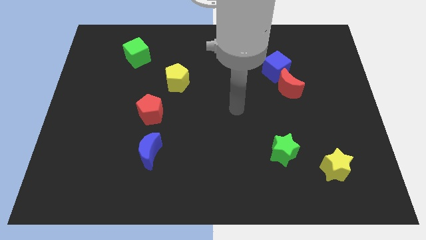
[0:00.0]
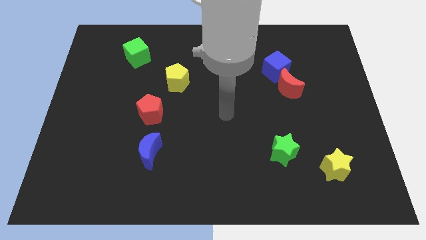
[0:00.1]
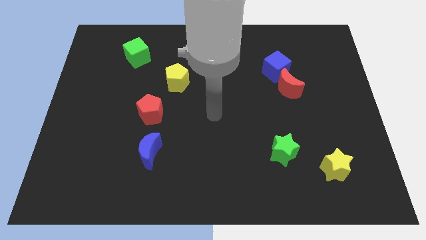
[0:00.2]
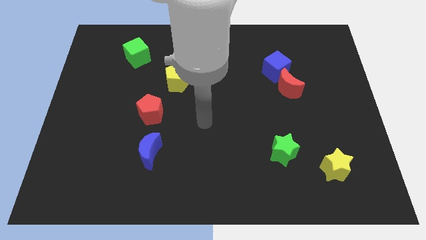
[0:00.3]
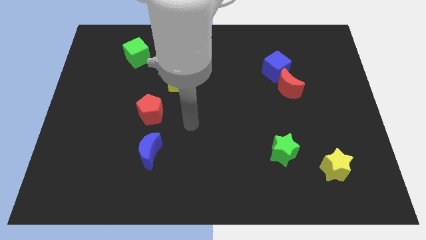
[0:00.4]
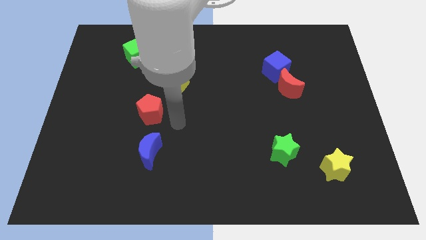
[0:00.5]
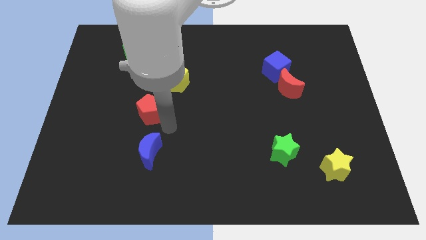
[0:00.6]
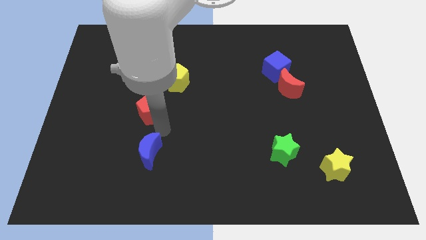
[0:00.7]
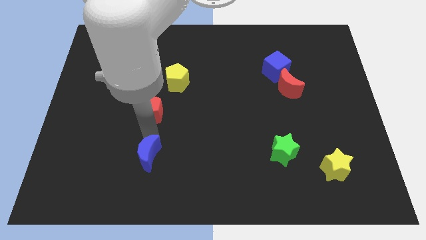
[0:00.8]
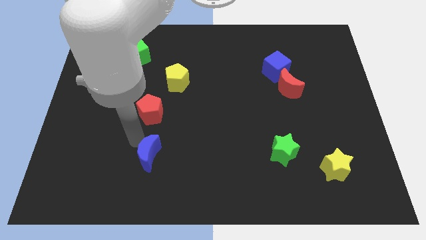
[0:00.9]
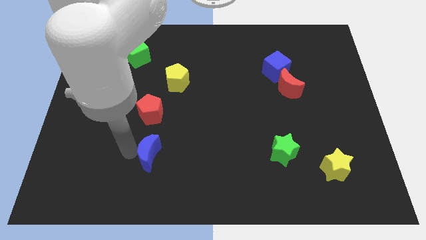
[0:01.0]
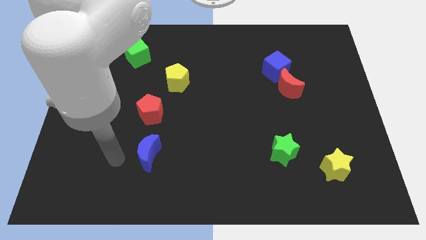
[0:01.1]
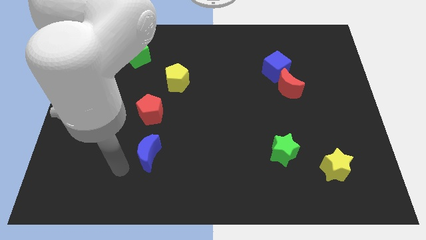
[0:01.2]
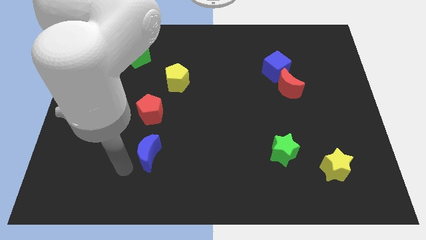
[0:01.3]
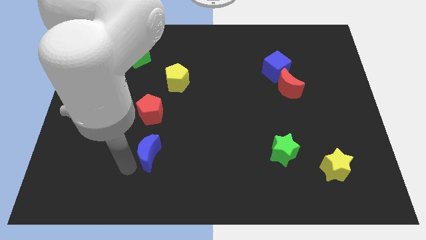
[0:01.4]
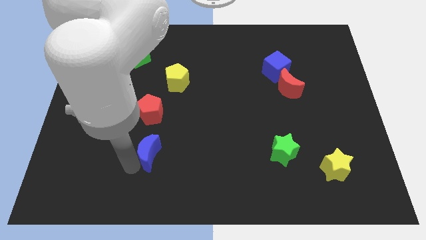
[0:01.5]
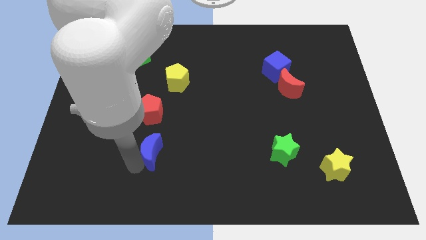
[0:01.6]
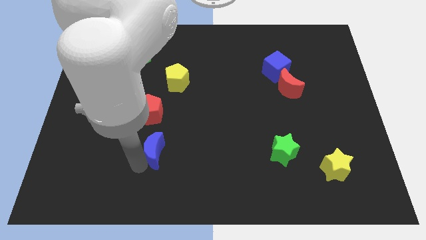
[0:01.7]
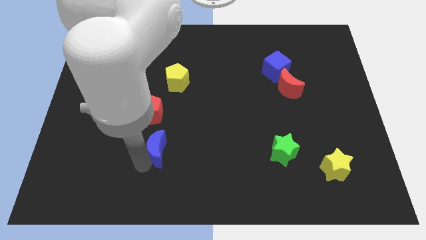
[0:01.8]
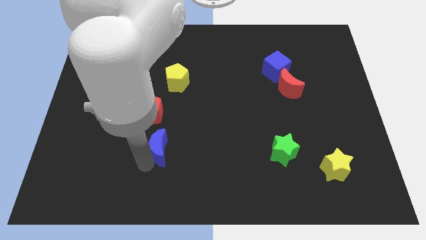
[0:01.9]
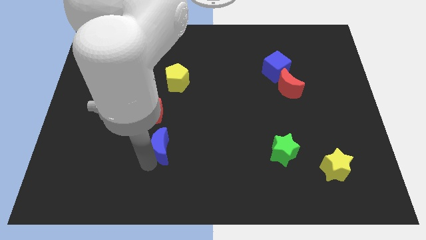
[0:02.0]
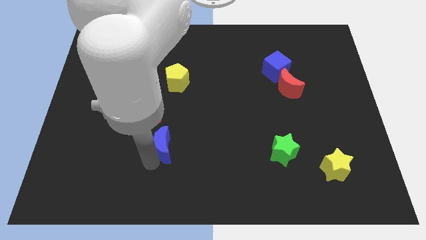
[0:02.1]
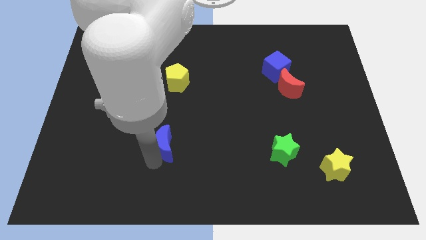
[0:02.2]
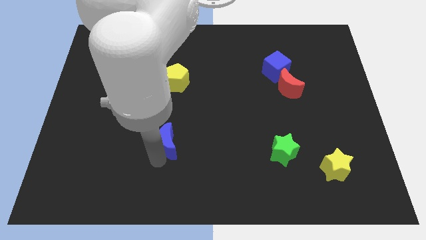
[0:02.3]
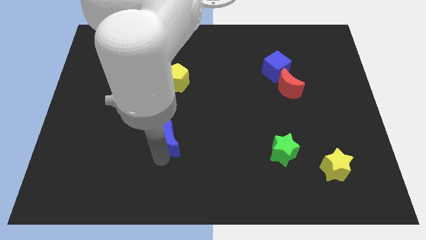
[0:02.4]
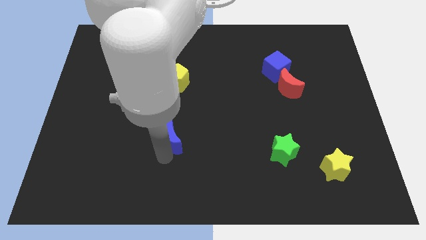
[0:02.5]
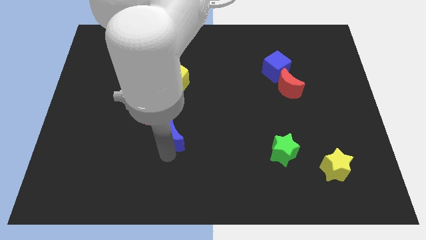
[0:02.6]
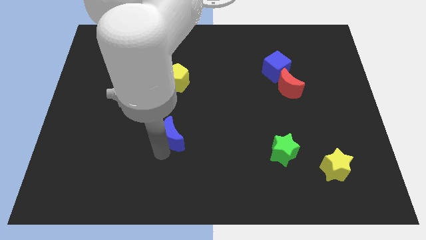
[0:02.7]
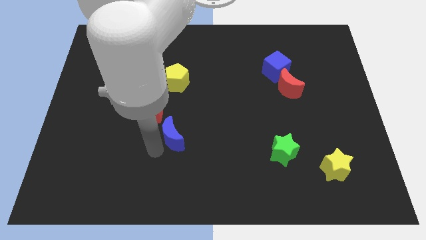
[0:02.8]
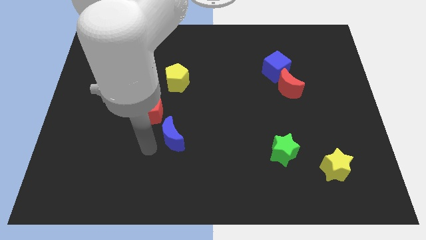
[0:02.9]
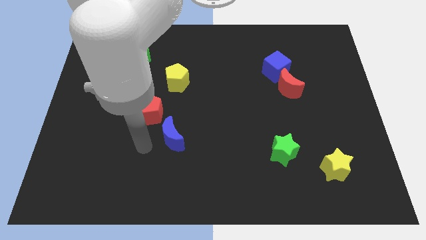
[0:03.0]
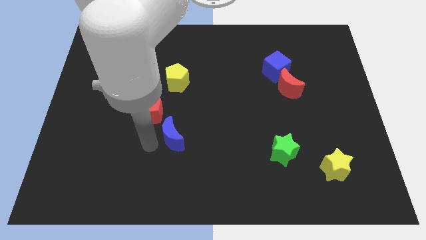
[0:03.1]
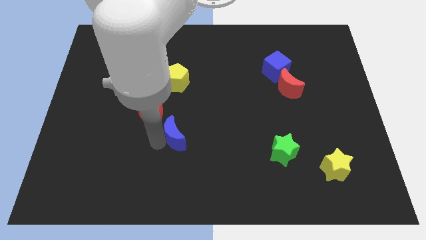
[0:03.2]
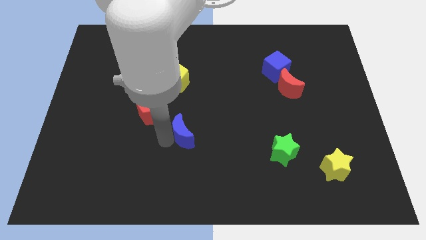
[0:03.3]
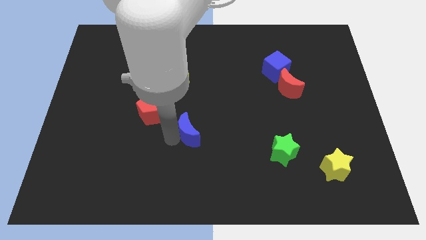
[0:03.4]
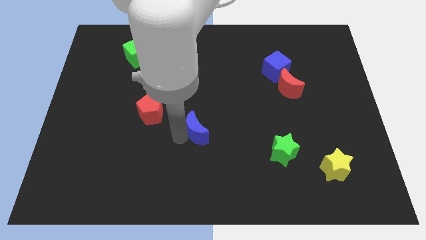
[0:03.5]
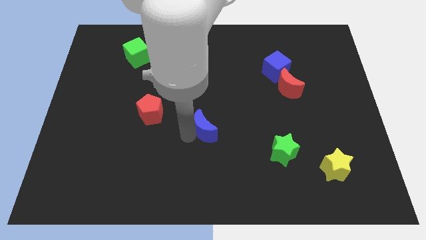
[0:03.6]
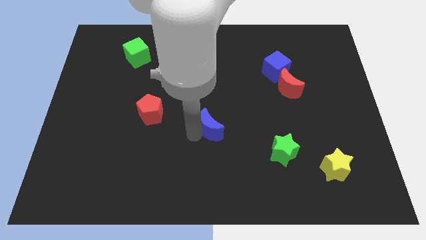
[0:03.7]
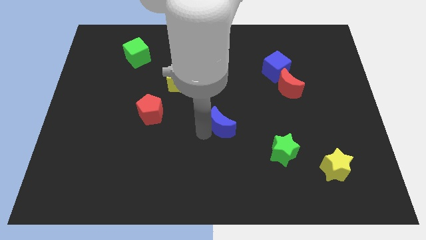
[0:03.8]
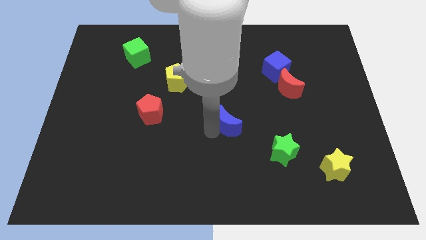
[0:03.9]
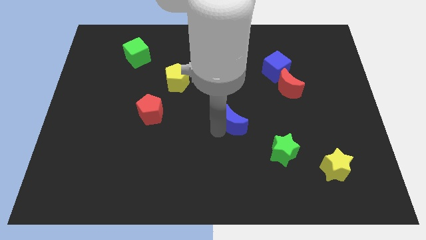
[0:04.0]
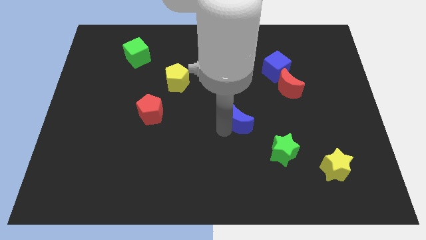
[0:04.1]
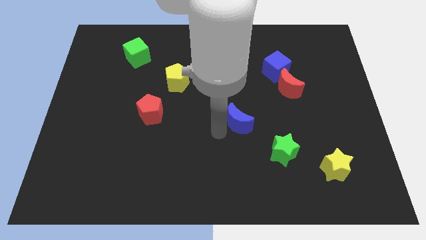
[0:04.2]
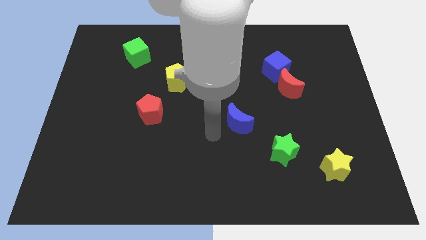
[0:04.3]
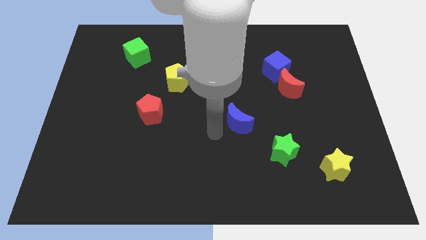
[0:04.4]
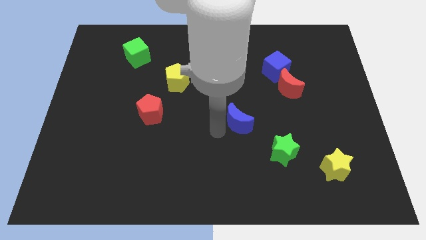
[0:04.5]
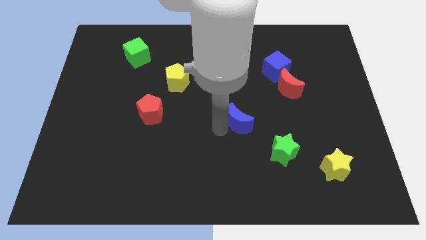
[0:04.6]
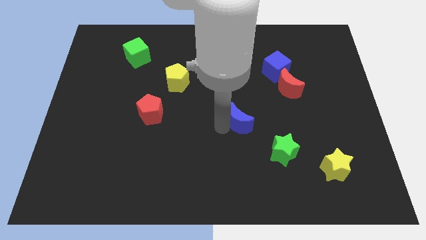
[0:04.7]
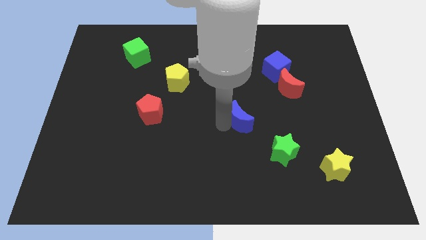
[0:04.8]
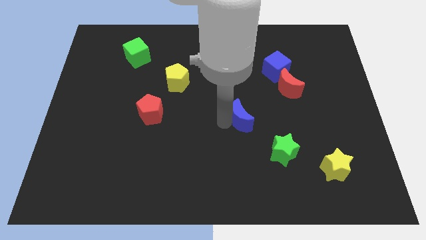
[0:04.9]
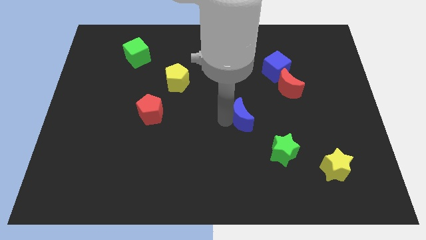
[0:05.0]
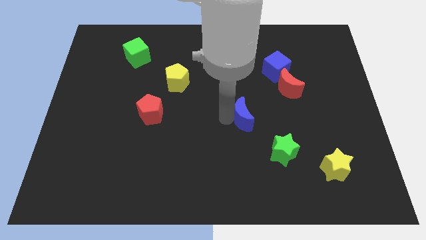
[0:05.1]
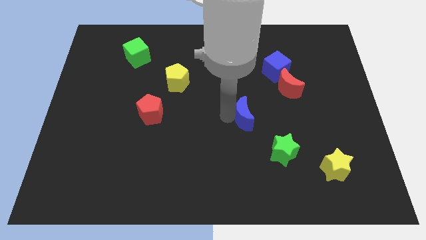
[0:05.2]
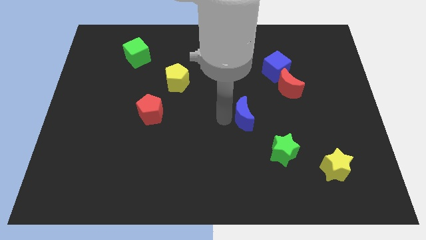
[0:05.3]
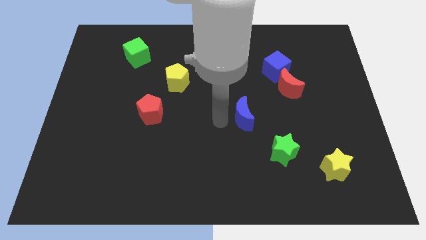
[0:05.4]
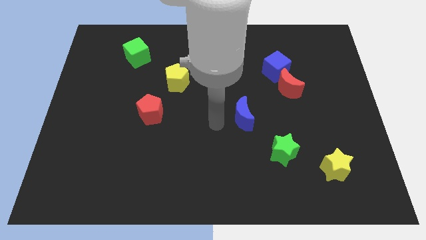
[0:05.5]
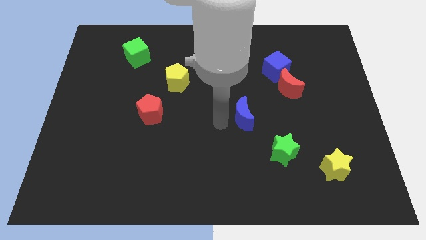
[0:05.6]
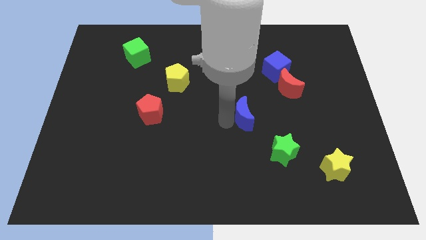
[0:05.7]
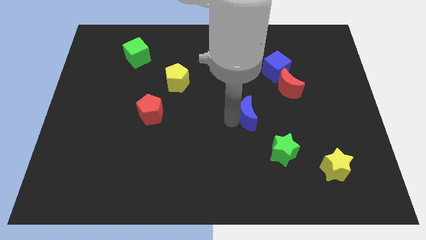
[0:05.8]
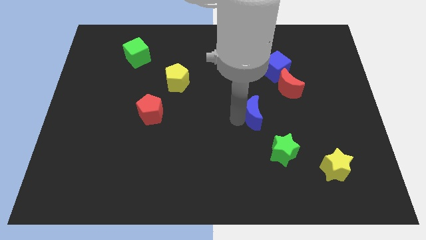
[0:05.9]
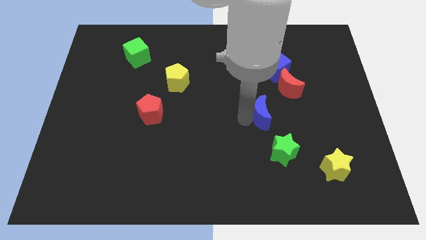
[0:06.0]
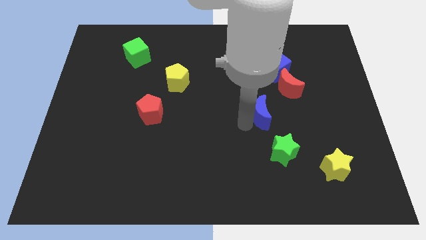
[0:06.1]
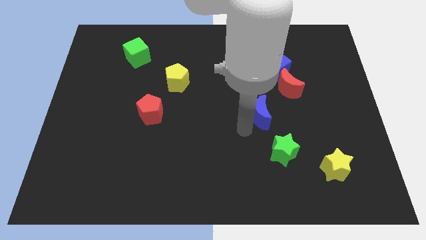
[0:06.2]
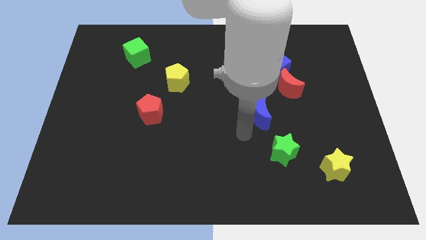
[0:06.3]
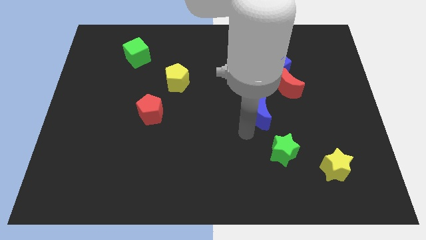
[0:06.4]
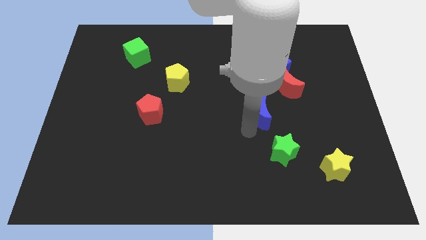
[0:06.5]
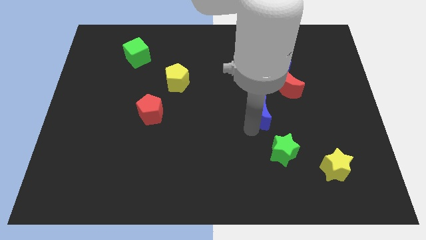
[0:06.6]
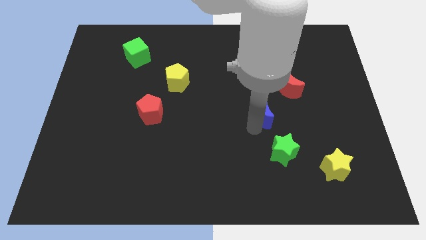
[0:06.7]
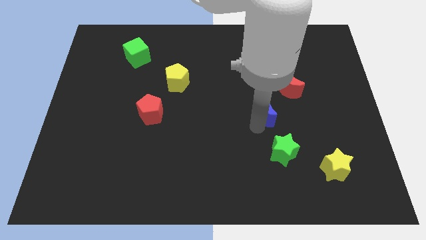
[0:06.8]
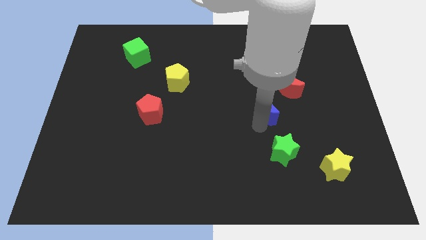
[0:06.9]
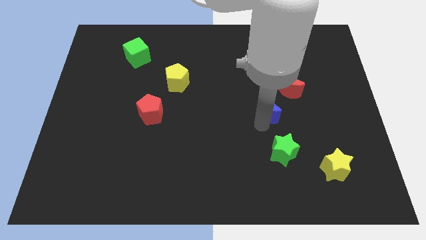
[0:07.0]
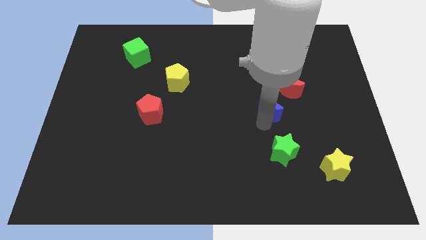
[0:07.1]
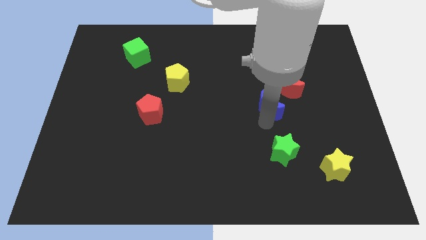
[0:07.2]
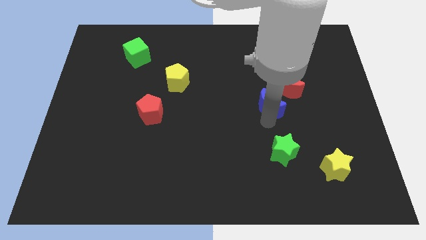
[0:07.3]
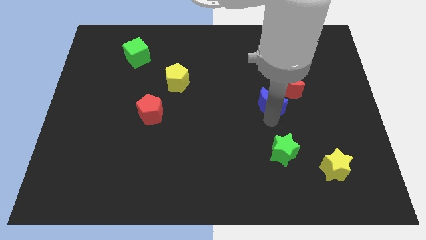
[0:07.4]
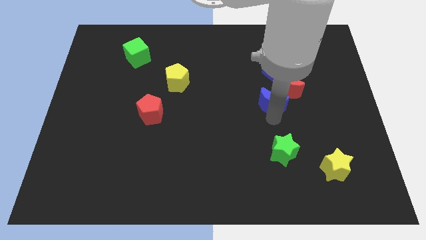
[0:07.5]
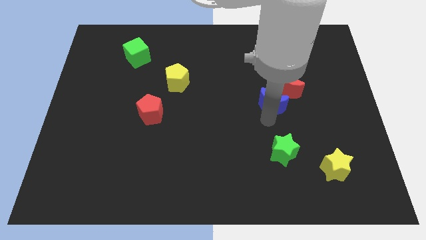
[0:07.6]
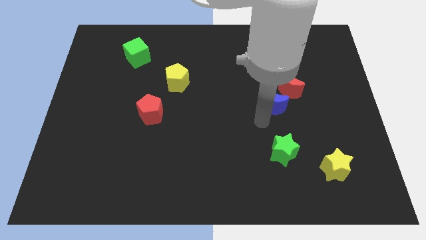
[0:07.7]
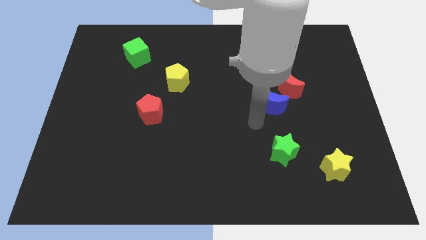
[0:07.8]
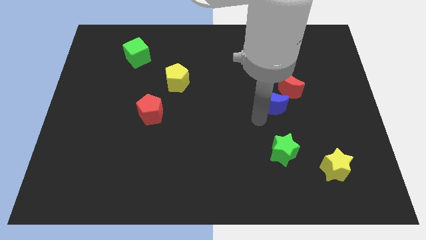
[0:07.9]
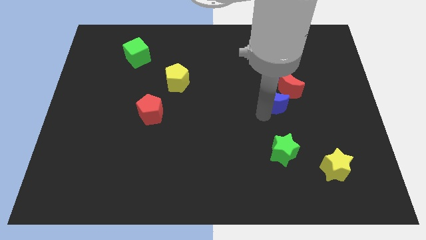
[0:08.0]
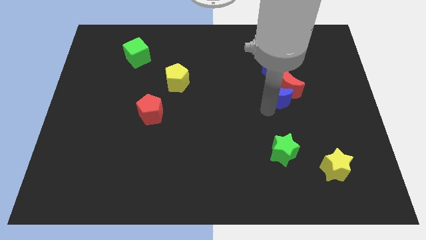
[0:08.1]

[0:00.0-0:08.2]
push the blue moon to the red moon
